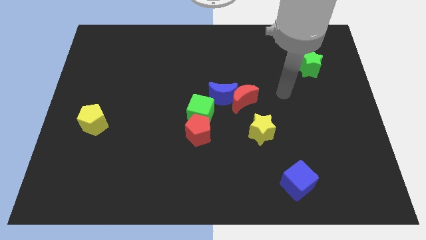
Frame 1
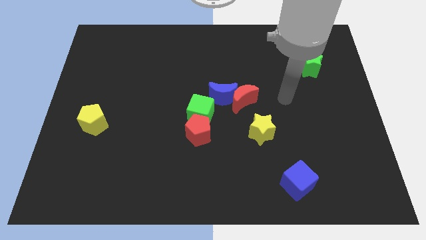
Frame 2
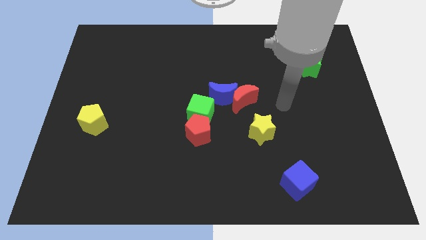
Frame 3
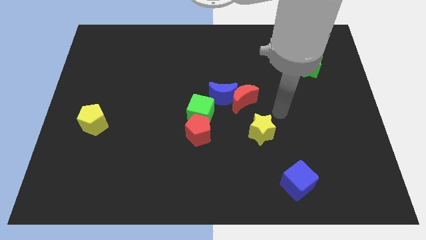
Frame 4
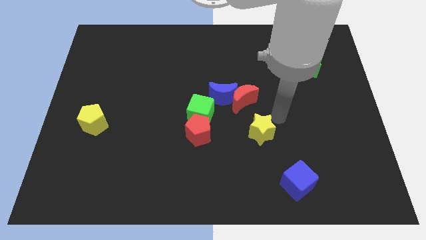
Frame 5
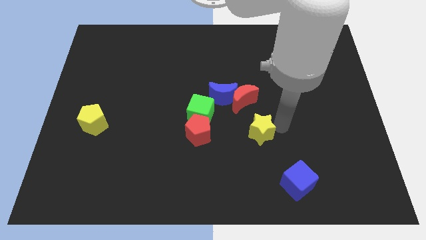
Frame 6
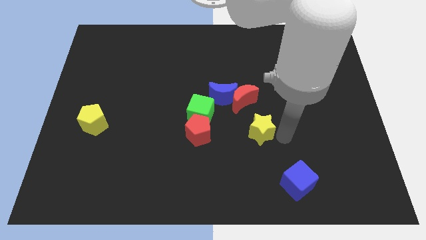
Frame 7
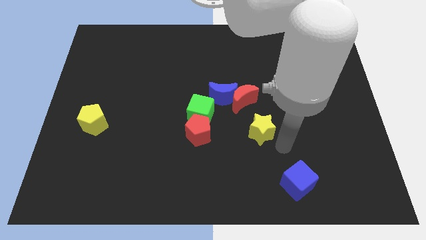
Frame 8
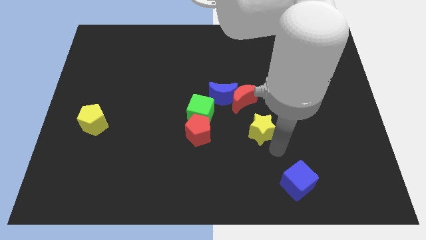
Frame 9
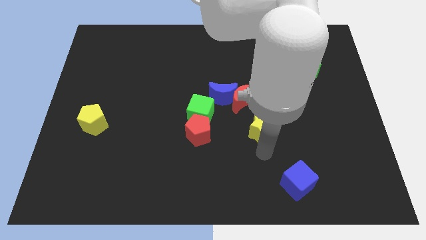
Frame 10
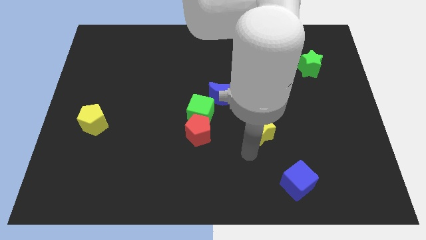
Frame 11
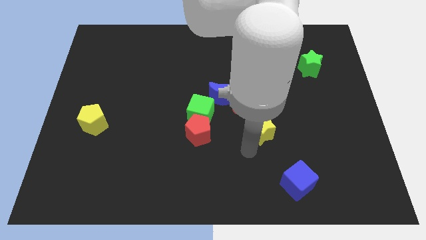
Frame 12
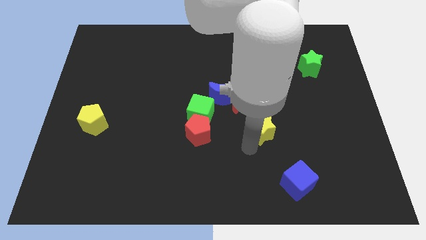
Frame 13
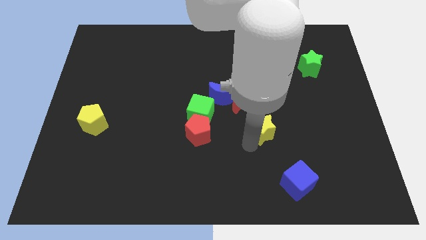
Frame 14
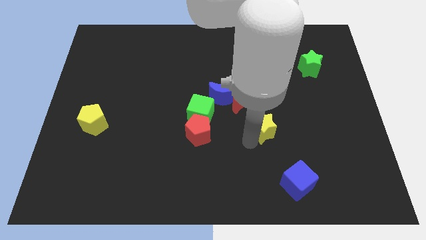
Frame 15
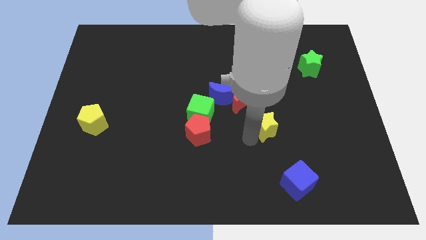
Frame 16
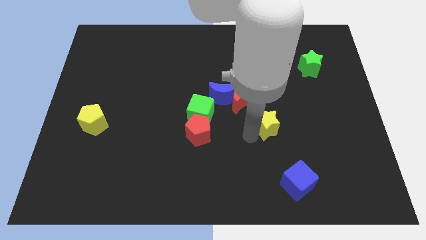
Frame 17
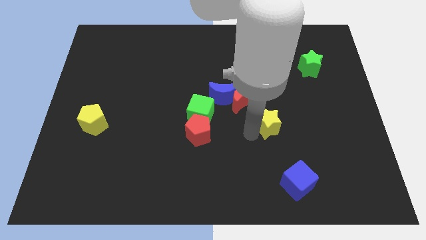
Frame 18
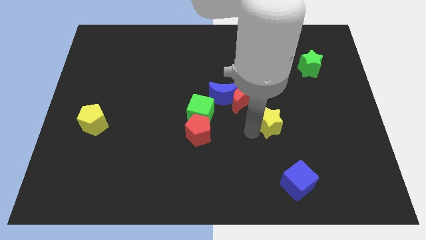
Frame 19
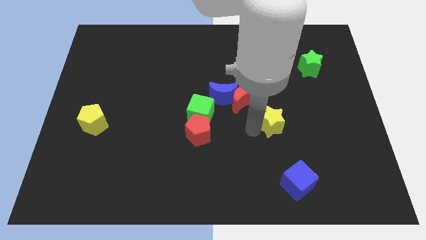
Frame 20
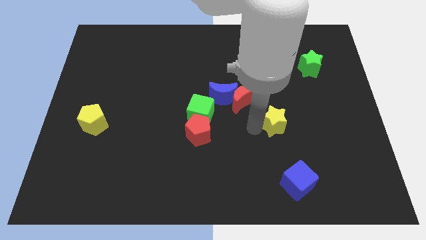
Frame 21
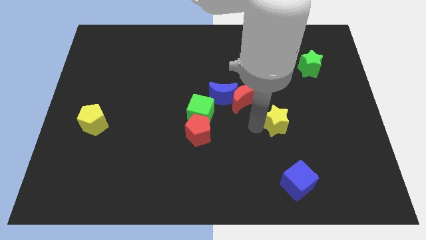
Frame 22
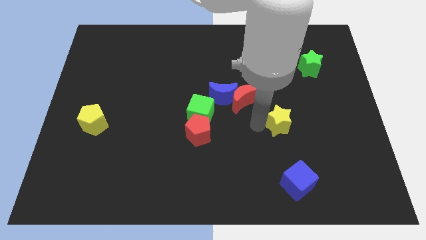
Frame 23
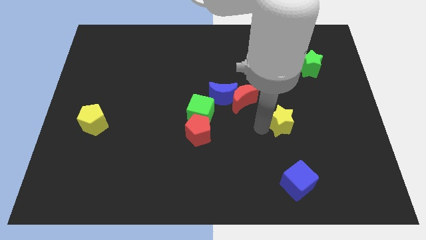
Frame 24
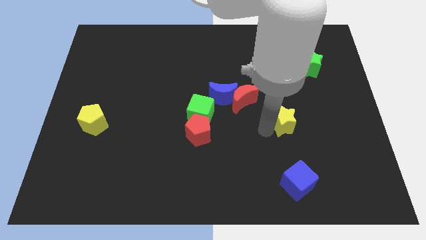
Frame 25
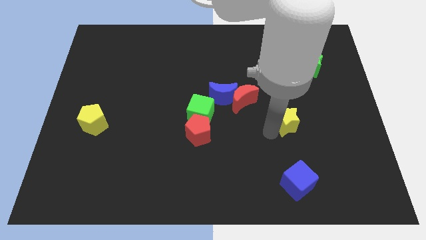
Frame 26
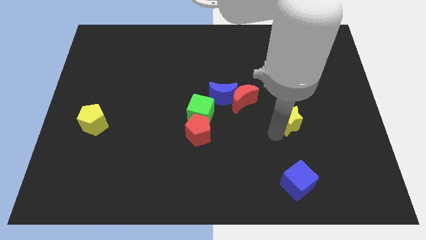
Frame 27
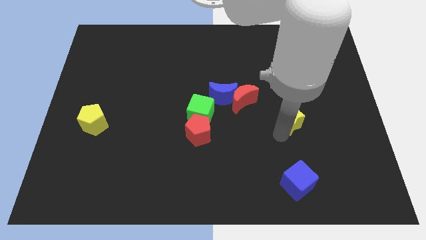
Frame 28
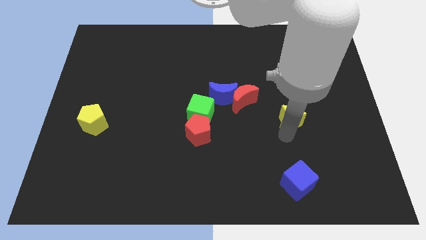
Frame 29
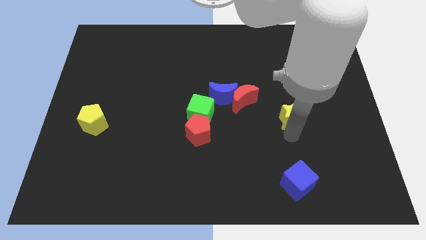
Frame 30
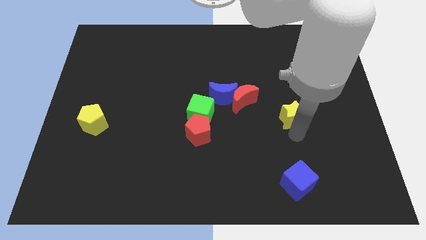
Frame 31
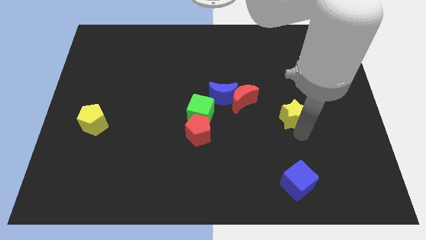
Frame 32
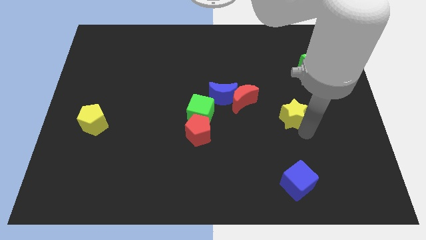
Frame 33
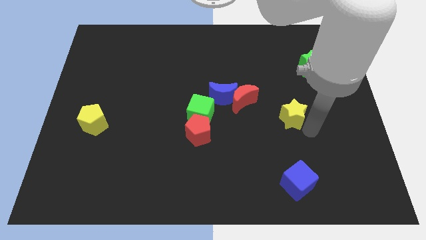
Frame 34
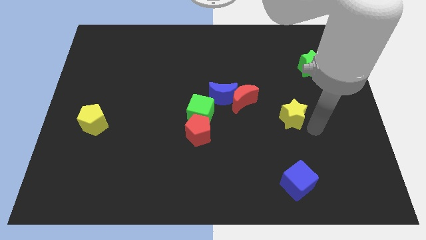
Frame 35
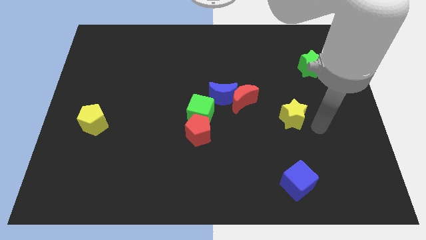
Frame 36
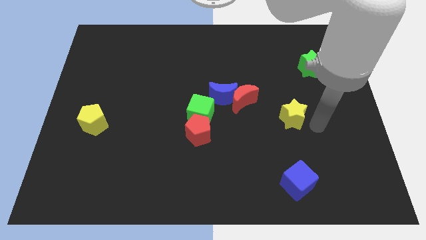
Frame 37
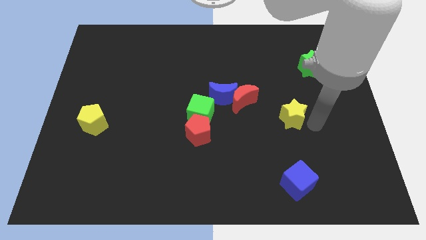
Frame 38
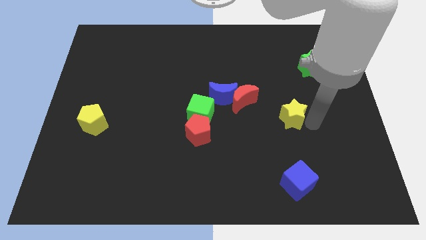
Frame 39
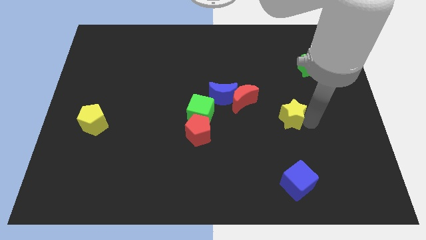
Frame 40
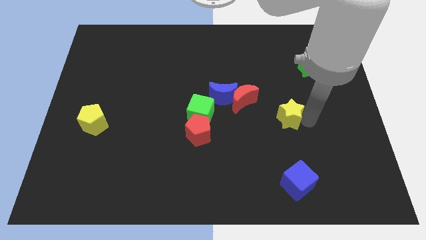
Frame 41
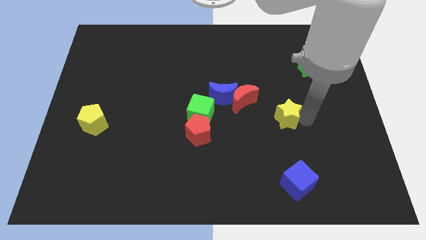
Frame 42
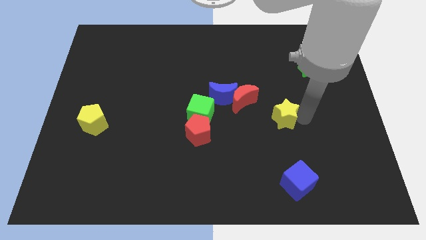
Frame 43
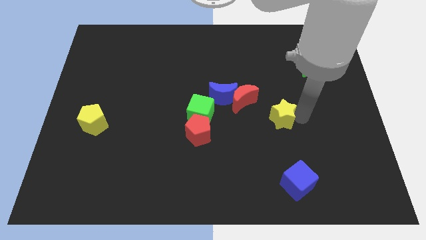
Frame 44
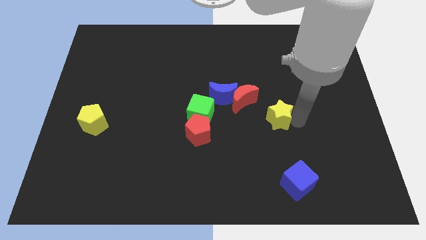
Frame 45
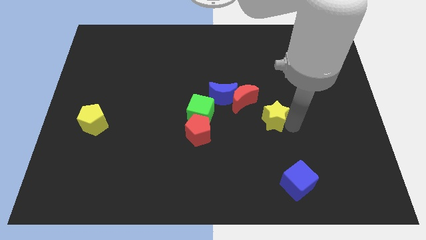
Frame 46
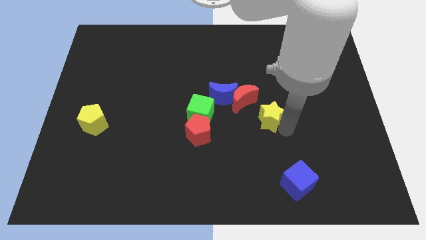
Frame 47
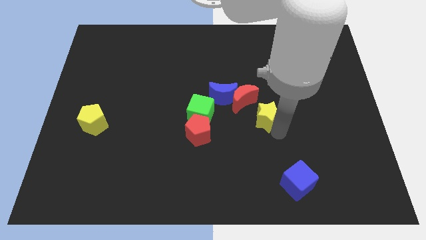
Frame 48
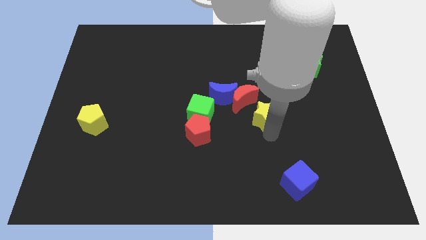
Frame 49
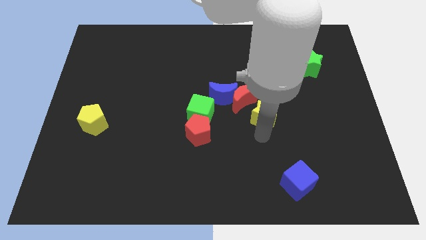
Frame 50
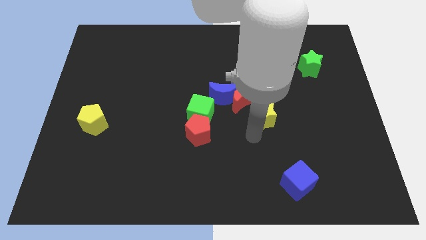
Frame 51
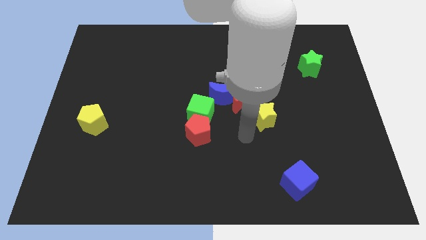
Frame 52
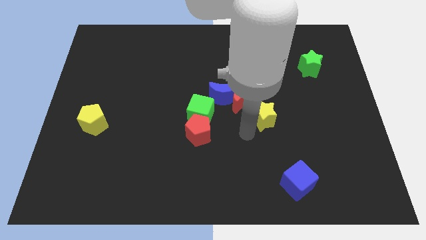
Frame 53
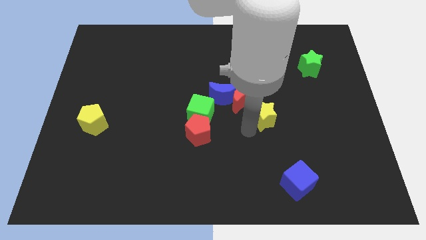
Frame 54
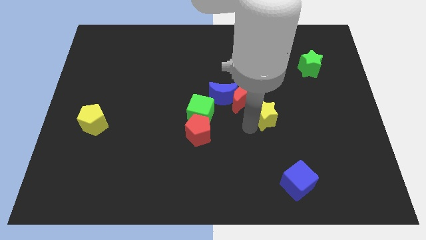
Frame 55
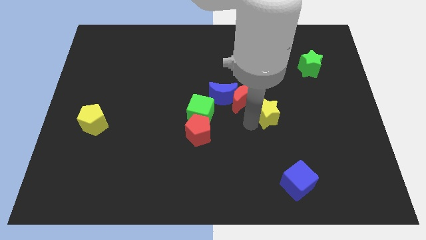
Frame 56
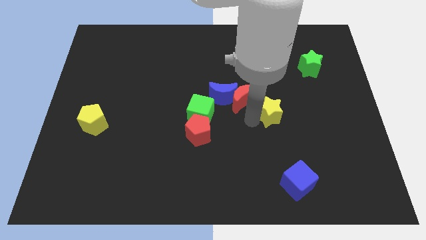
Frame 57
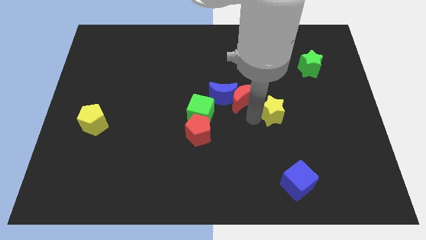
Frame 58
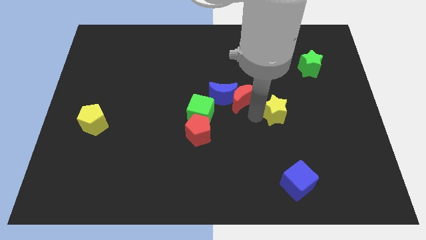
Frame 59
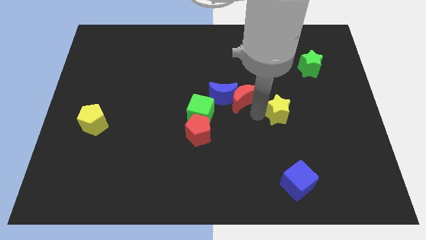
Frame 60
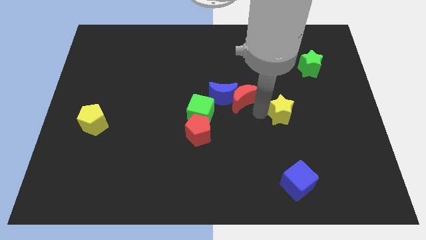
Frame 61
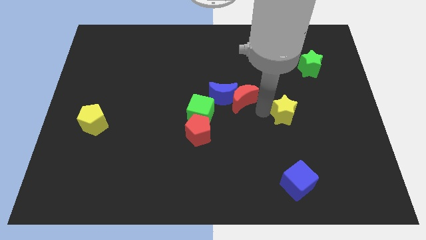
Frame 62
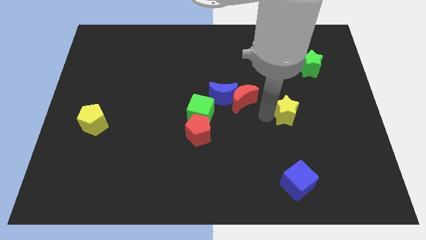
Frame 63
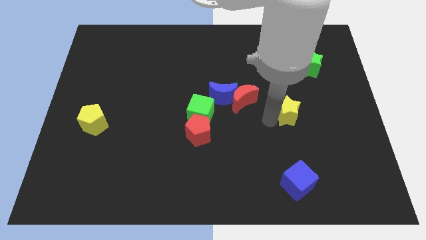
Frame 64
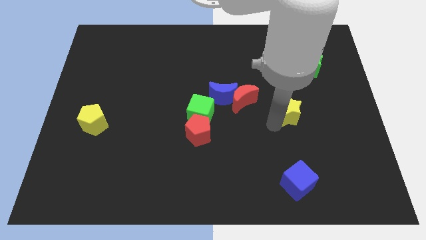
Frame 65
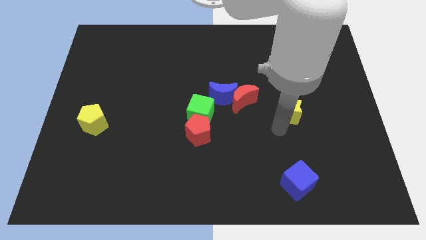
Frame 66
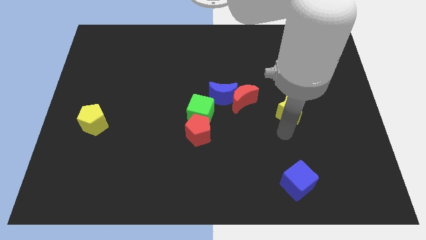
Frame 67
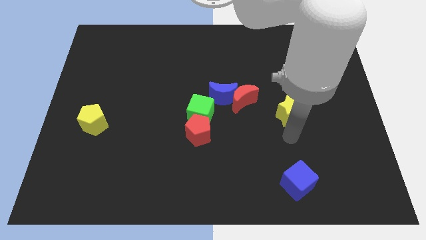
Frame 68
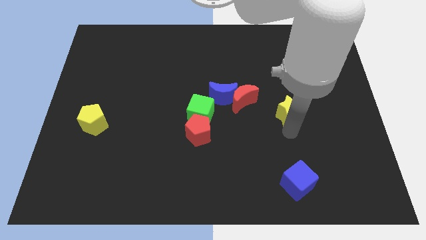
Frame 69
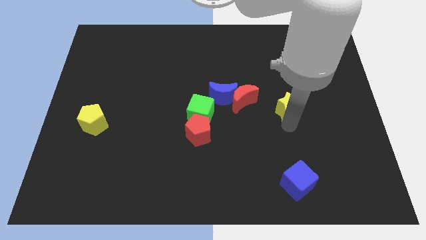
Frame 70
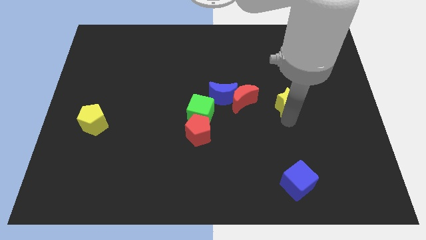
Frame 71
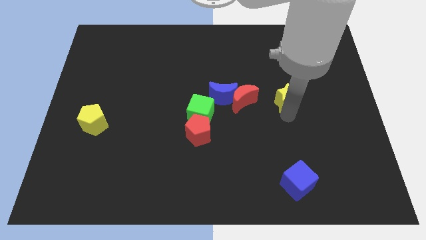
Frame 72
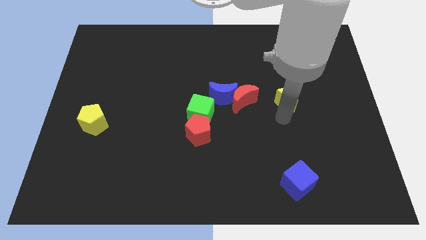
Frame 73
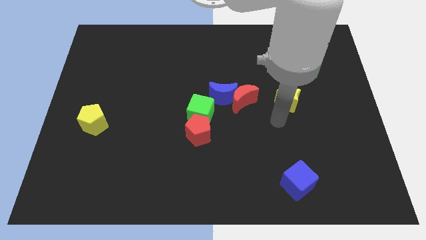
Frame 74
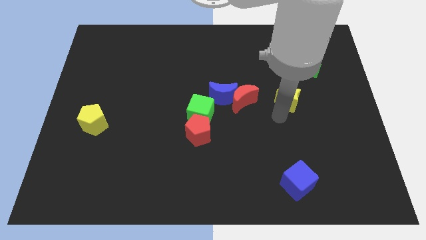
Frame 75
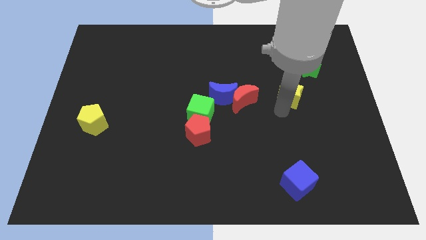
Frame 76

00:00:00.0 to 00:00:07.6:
move the yellow star diagonally down and to the left of the green star
